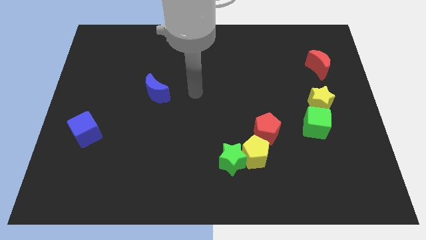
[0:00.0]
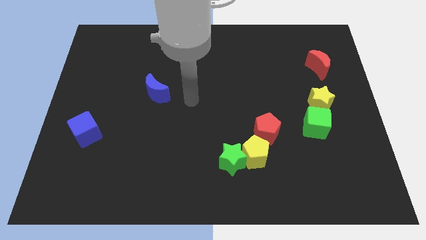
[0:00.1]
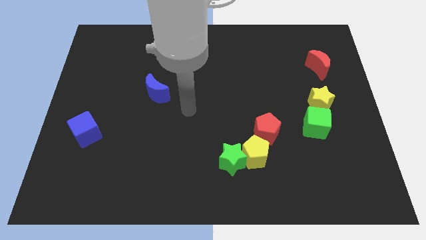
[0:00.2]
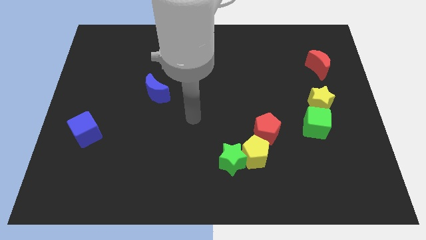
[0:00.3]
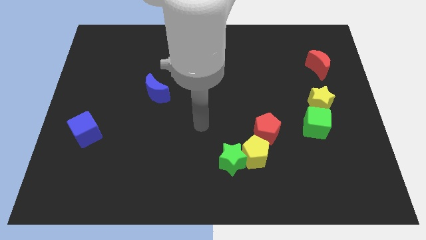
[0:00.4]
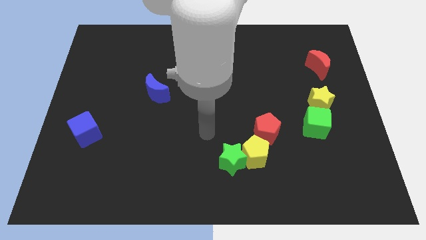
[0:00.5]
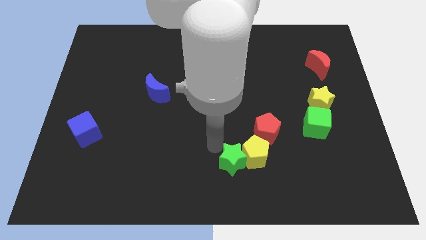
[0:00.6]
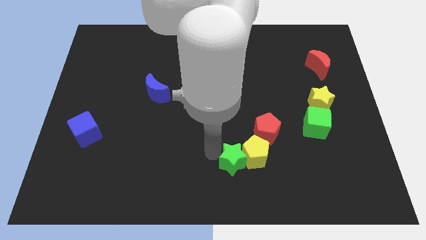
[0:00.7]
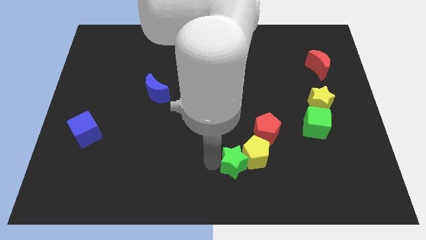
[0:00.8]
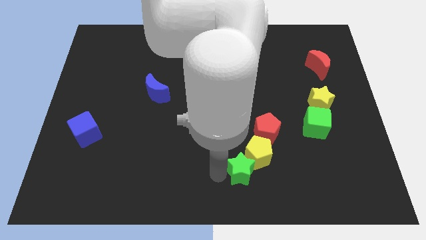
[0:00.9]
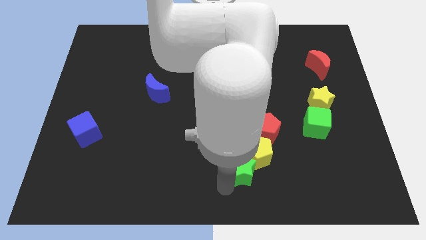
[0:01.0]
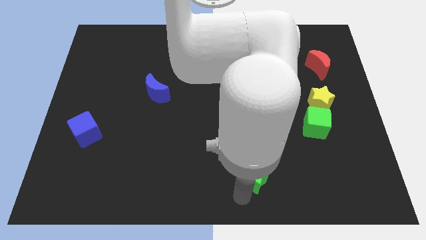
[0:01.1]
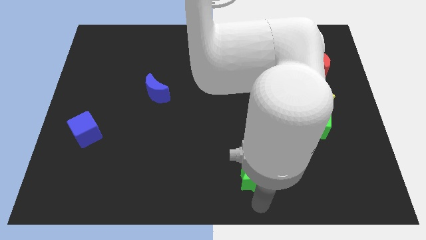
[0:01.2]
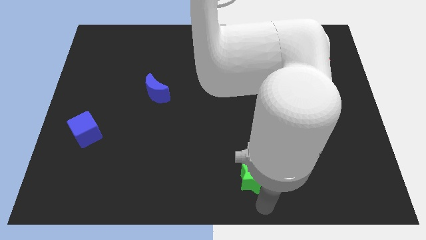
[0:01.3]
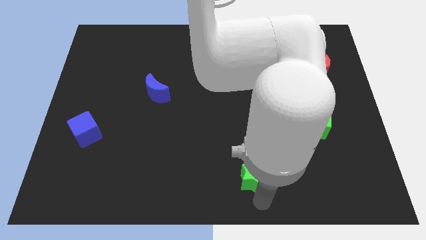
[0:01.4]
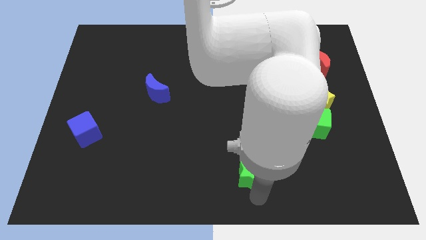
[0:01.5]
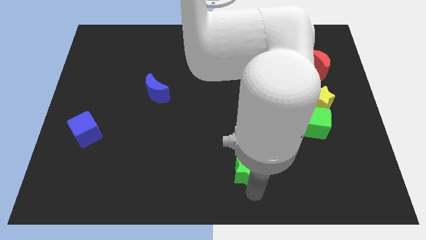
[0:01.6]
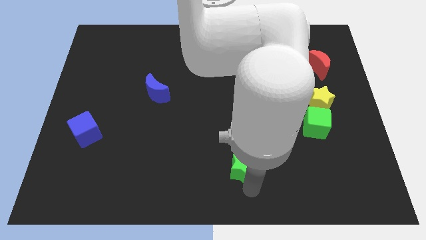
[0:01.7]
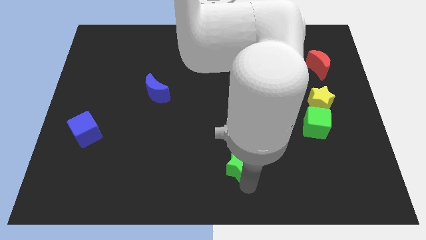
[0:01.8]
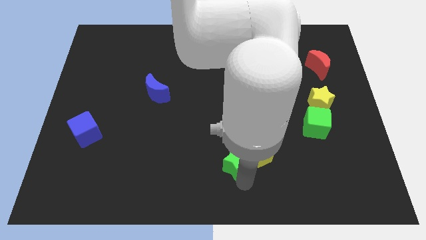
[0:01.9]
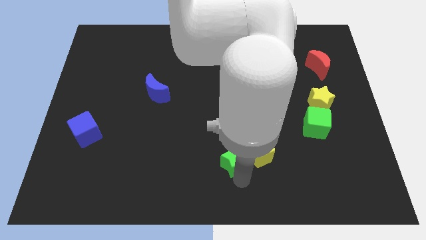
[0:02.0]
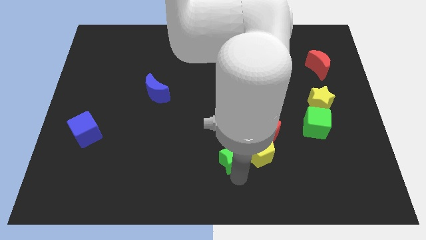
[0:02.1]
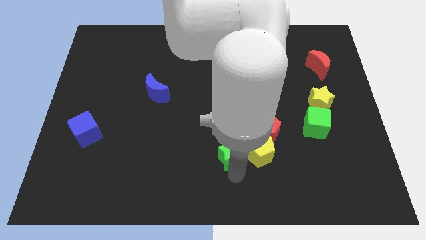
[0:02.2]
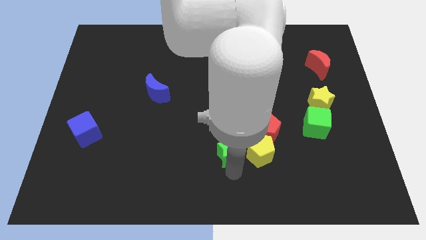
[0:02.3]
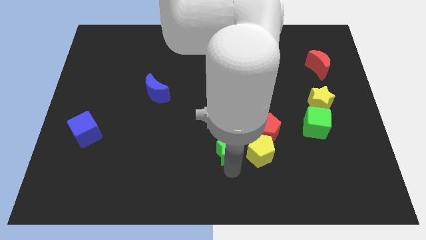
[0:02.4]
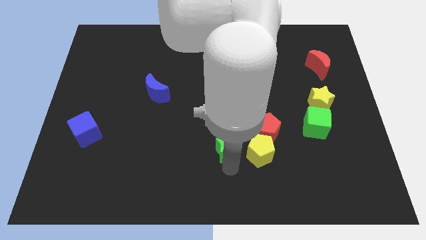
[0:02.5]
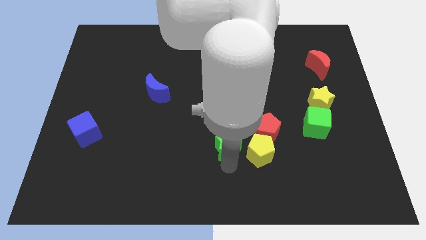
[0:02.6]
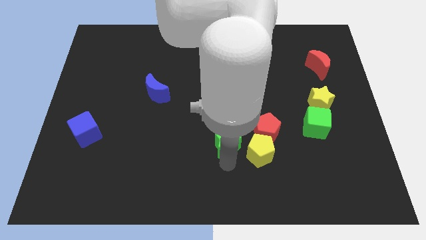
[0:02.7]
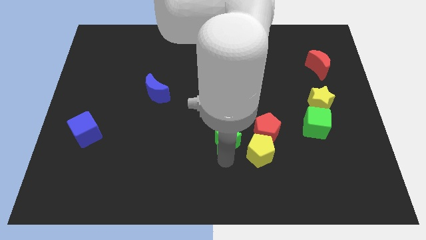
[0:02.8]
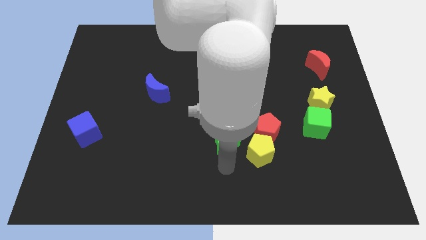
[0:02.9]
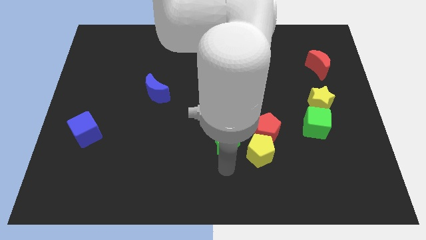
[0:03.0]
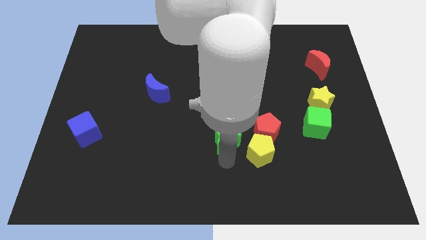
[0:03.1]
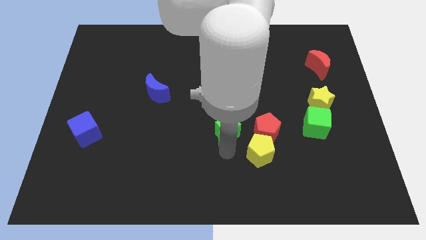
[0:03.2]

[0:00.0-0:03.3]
slide the green star up a little

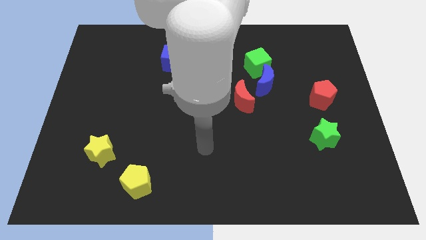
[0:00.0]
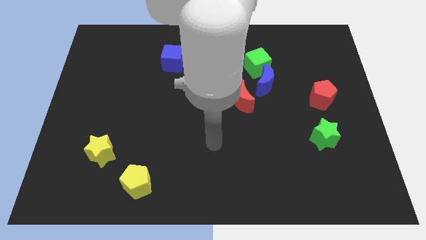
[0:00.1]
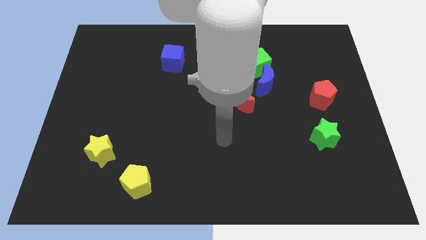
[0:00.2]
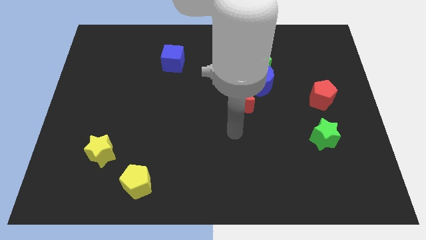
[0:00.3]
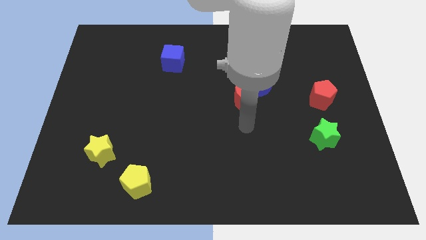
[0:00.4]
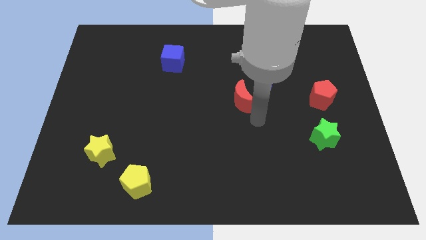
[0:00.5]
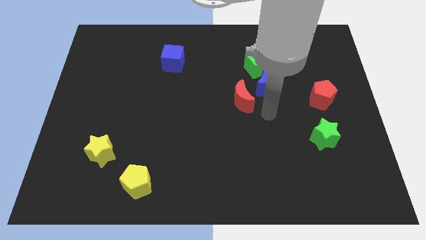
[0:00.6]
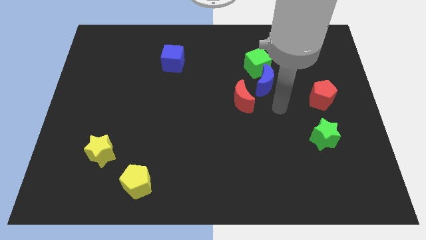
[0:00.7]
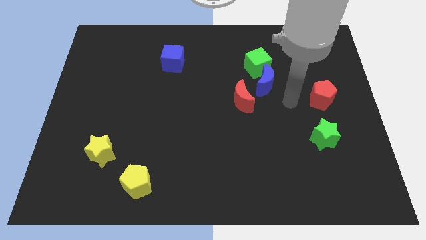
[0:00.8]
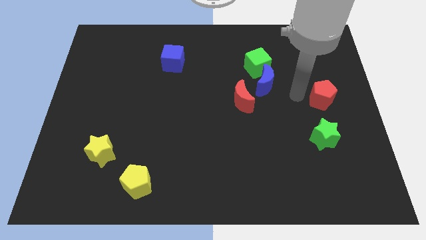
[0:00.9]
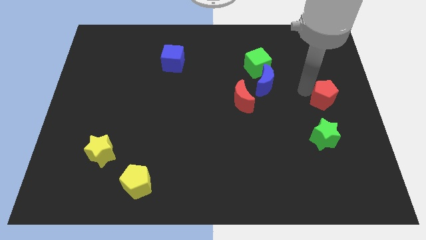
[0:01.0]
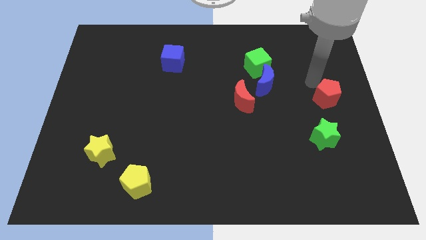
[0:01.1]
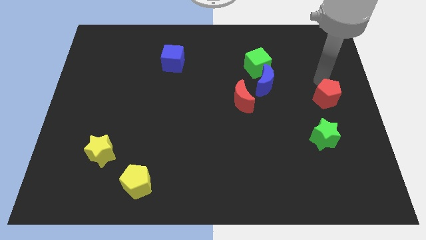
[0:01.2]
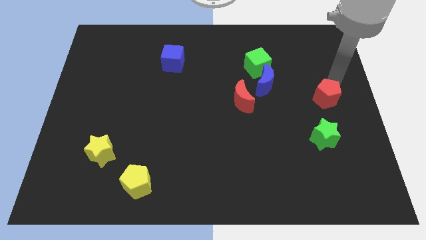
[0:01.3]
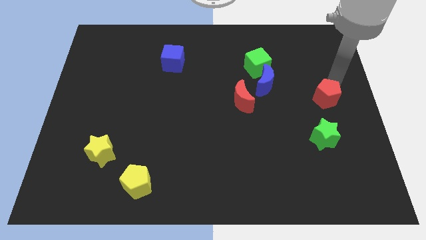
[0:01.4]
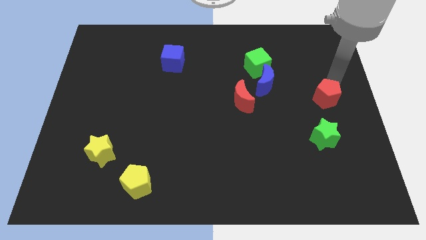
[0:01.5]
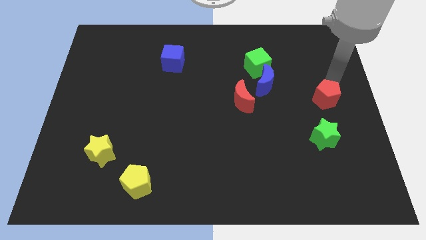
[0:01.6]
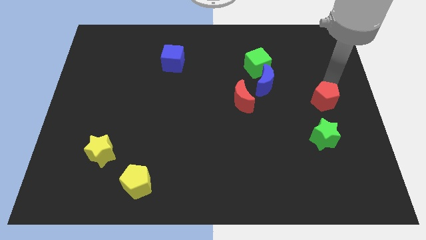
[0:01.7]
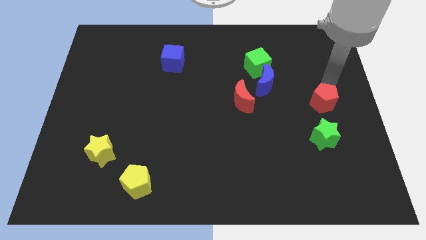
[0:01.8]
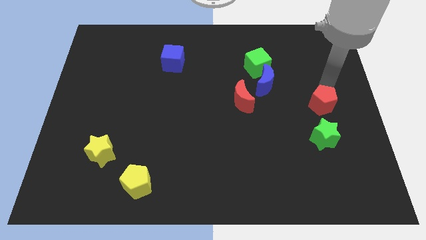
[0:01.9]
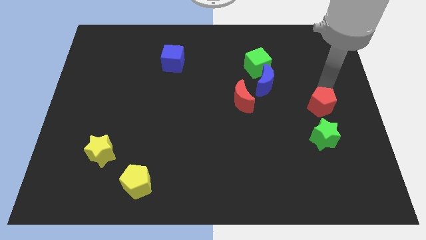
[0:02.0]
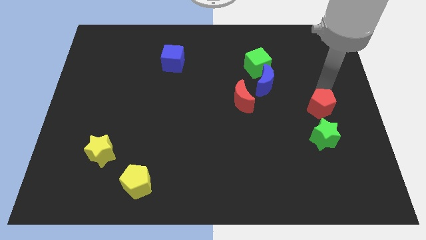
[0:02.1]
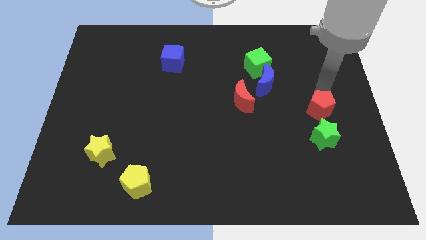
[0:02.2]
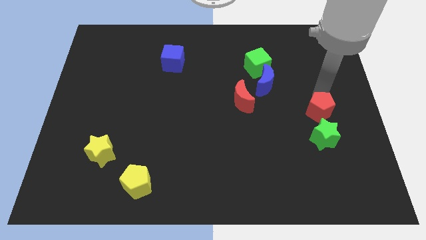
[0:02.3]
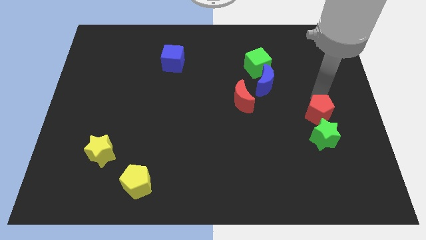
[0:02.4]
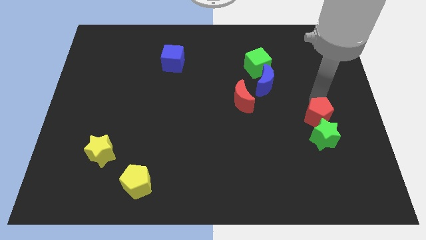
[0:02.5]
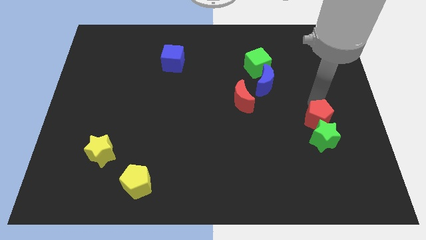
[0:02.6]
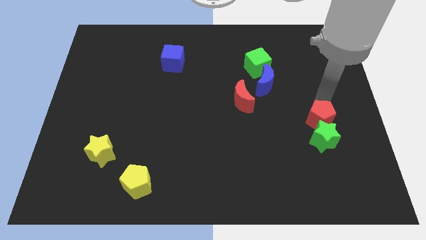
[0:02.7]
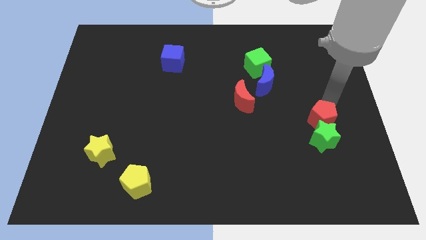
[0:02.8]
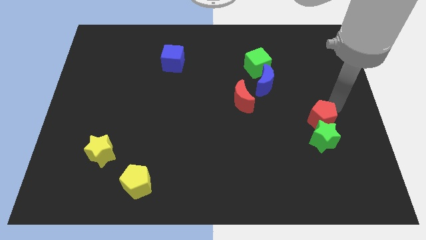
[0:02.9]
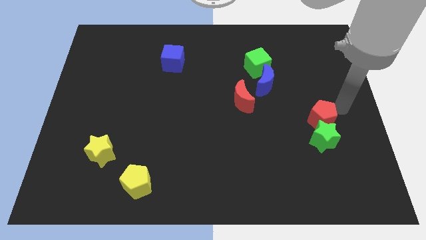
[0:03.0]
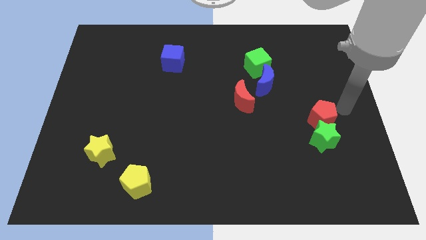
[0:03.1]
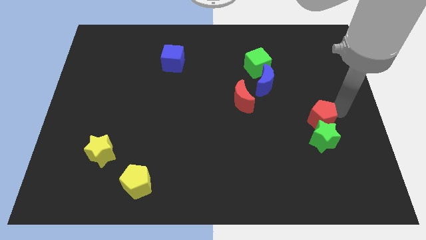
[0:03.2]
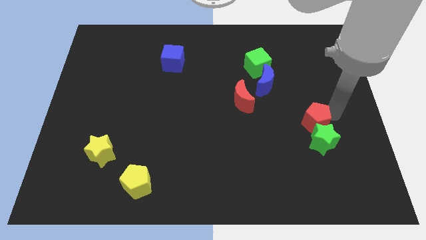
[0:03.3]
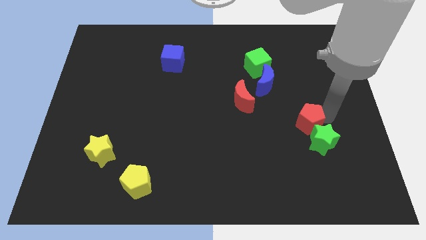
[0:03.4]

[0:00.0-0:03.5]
push the red pentagon downwards and then left somewhat

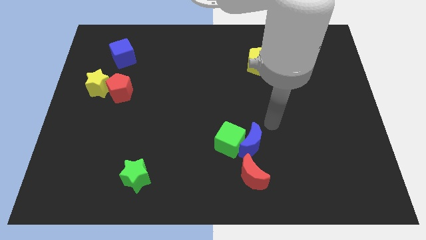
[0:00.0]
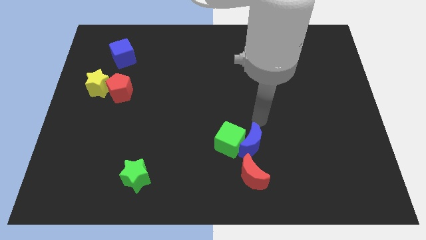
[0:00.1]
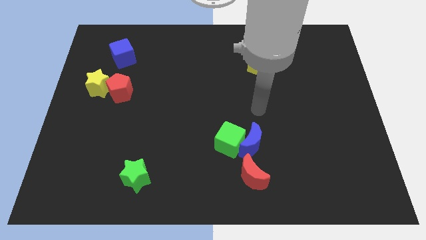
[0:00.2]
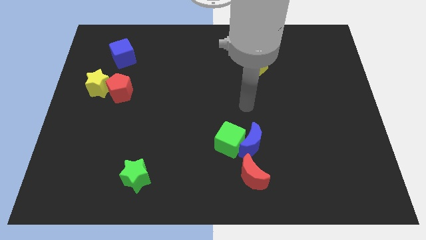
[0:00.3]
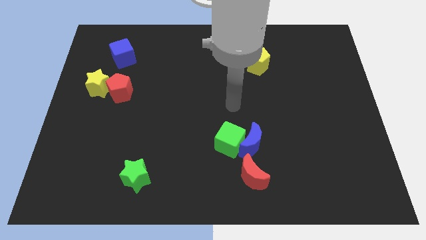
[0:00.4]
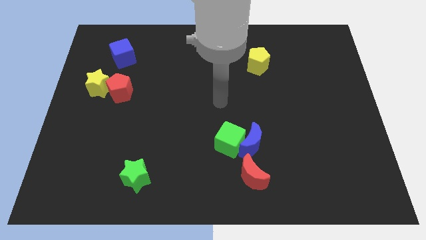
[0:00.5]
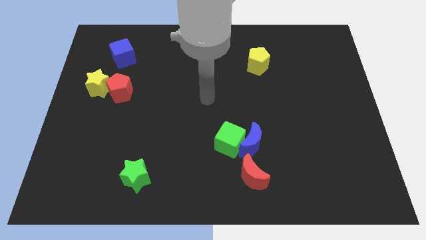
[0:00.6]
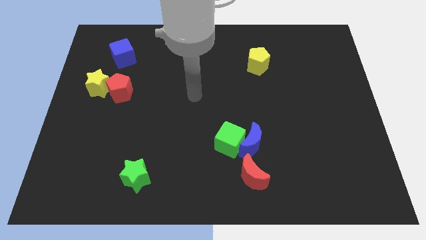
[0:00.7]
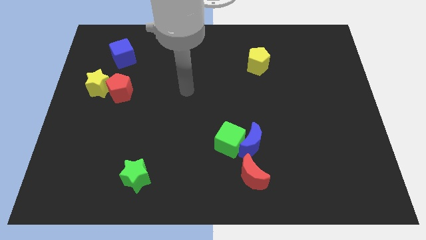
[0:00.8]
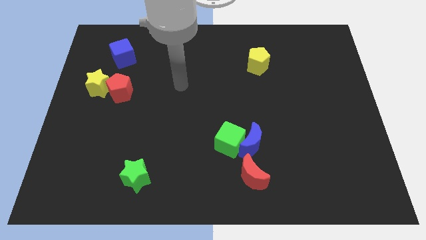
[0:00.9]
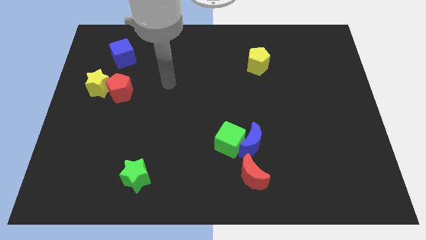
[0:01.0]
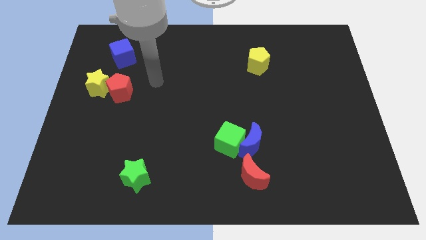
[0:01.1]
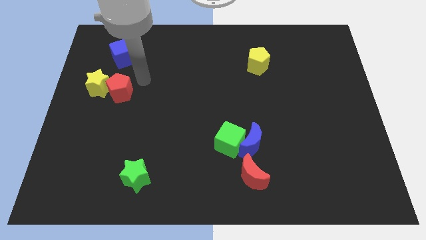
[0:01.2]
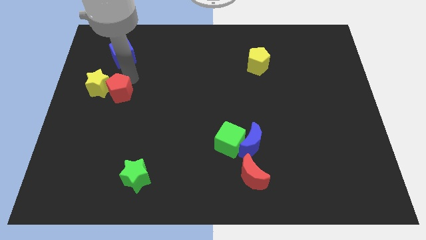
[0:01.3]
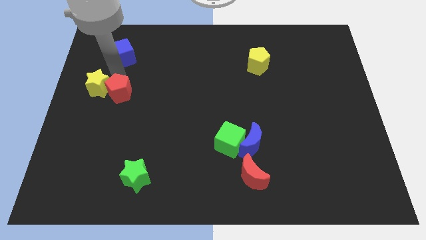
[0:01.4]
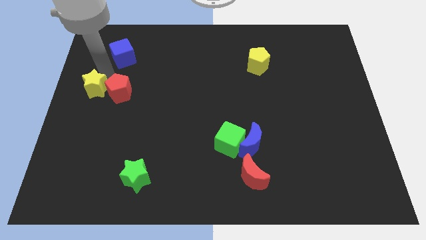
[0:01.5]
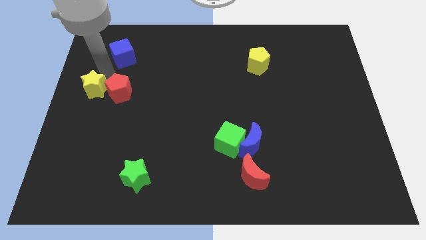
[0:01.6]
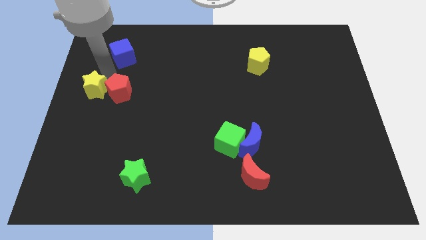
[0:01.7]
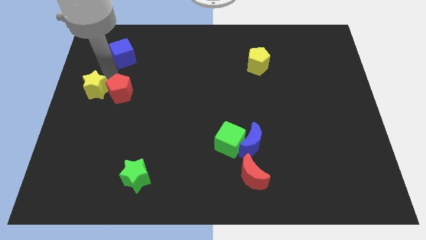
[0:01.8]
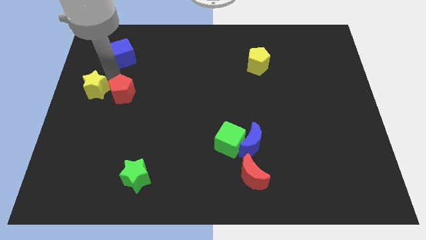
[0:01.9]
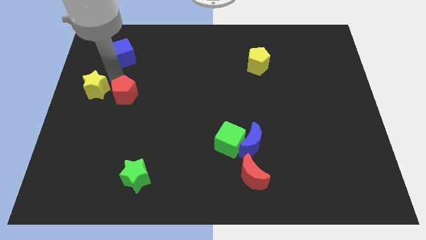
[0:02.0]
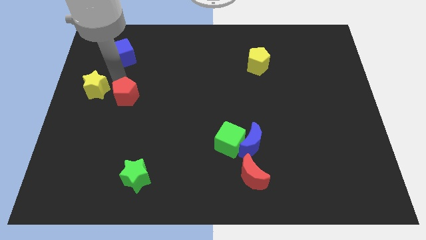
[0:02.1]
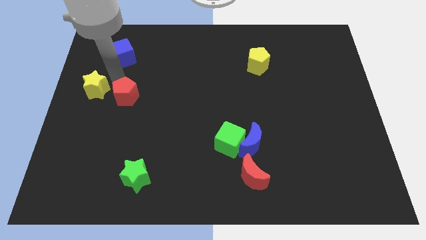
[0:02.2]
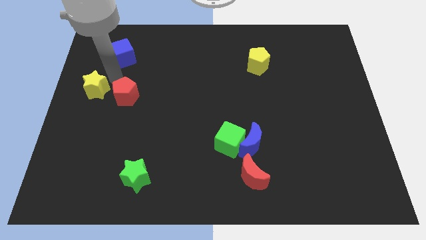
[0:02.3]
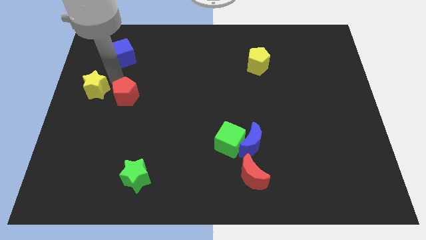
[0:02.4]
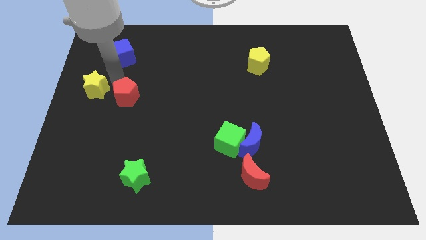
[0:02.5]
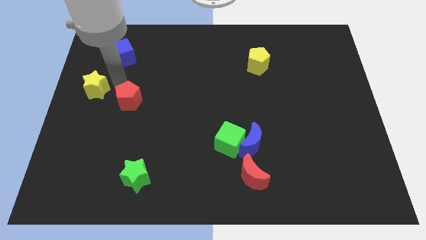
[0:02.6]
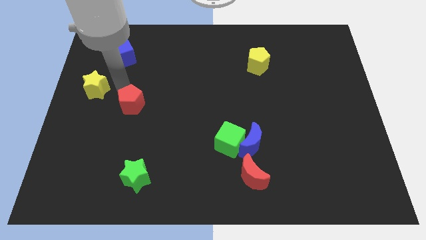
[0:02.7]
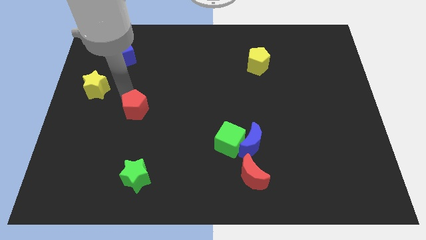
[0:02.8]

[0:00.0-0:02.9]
slightly move the red pentagon downwards and then to the right
